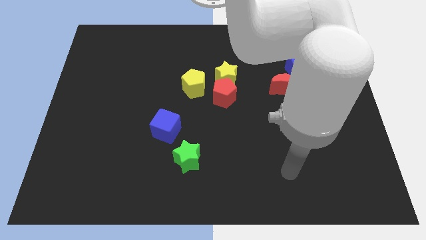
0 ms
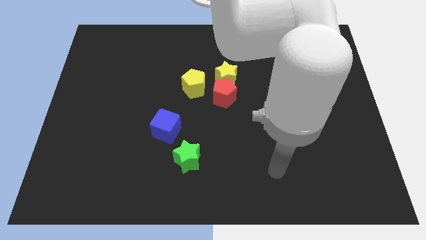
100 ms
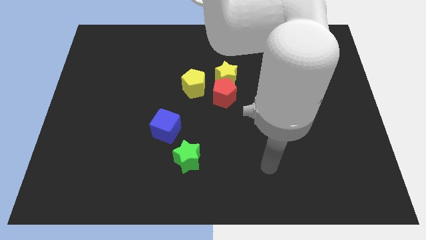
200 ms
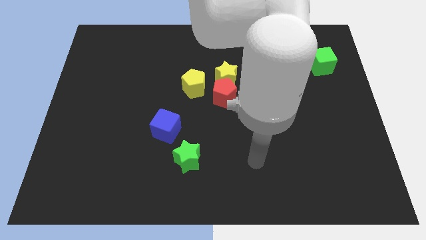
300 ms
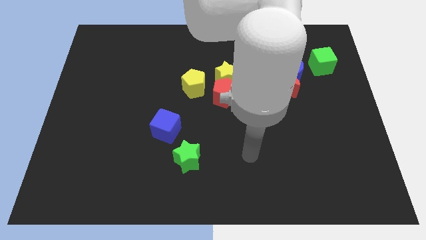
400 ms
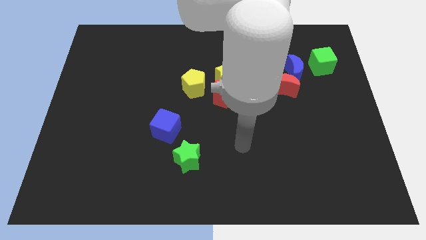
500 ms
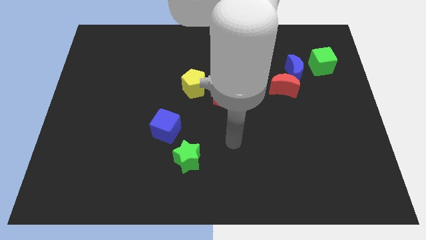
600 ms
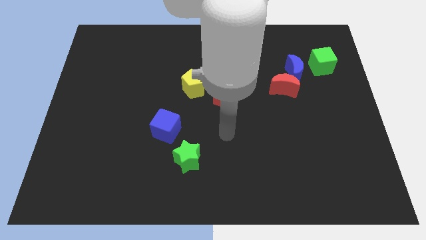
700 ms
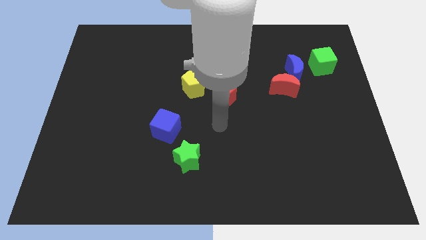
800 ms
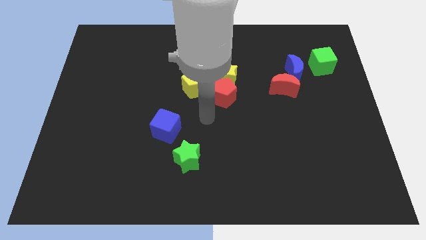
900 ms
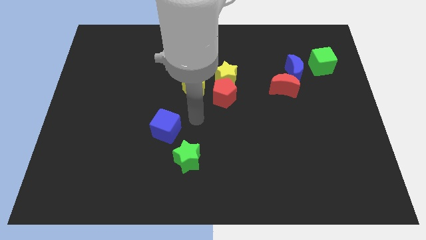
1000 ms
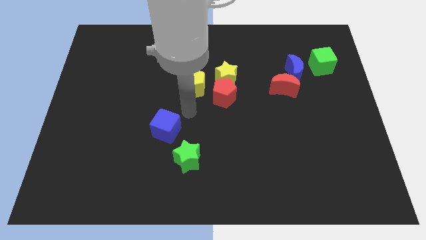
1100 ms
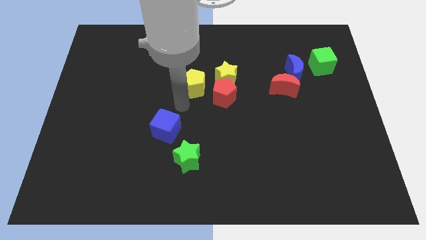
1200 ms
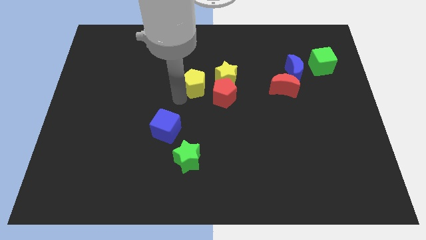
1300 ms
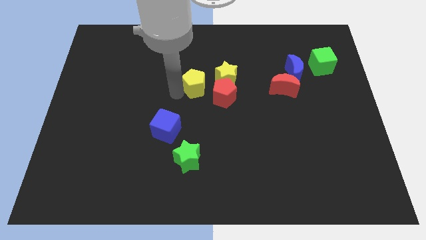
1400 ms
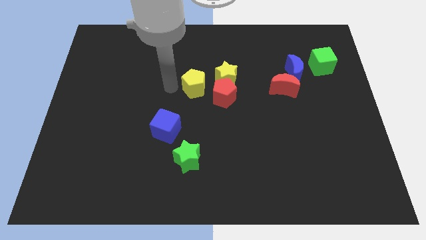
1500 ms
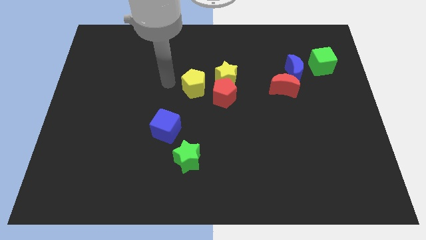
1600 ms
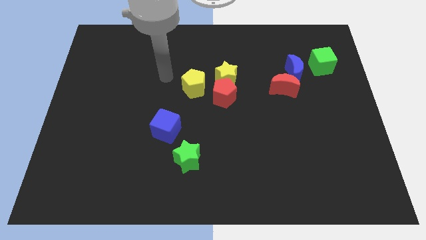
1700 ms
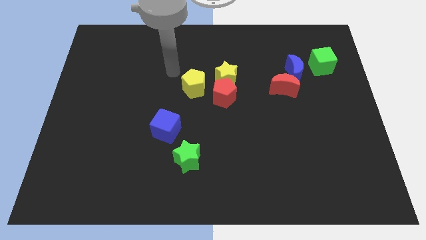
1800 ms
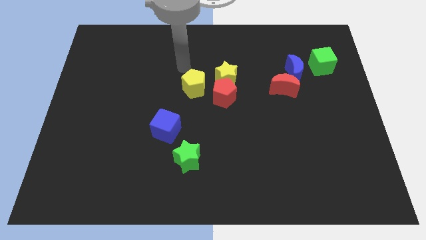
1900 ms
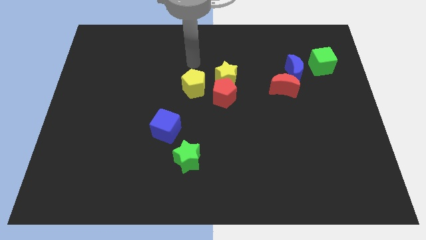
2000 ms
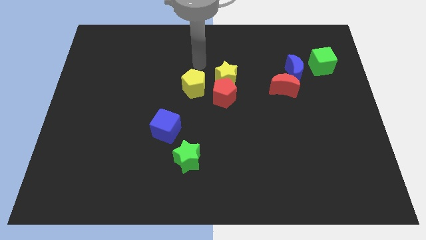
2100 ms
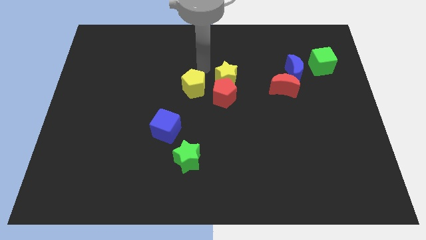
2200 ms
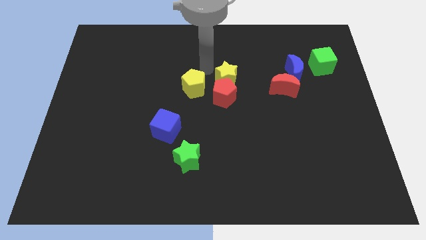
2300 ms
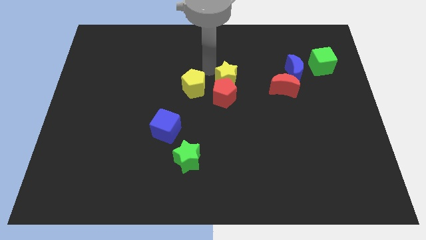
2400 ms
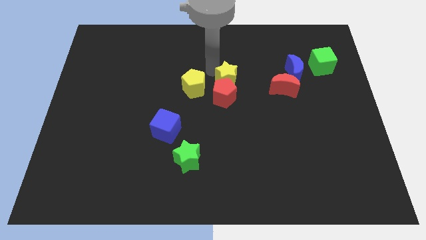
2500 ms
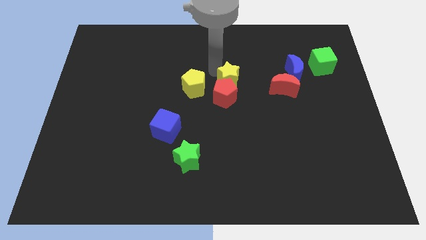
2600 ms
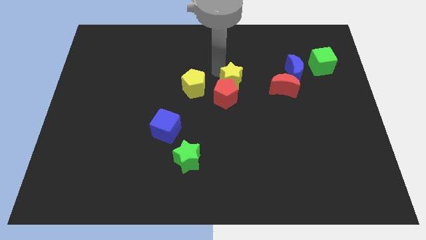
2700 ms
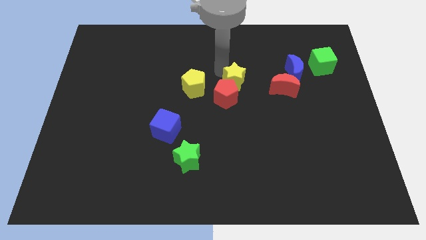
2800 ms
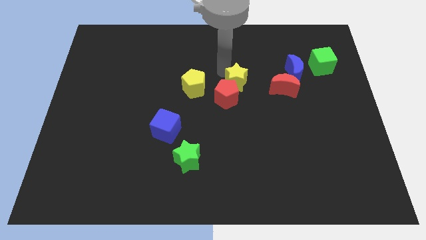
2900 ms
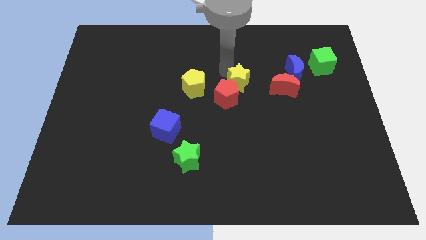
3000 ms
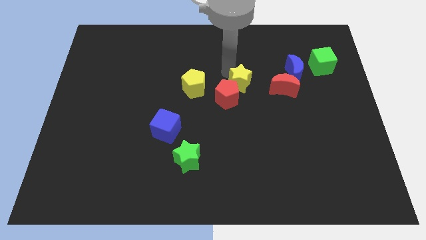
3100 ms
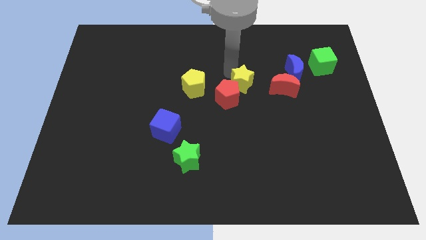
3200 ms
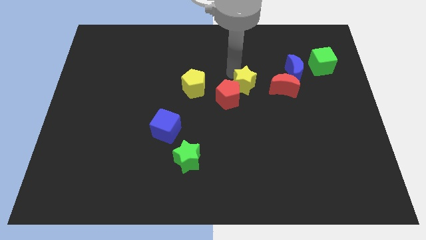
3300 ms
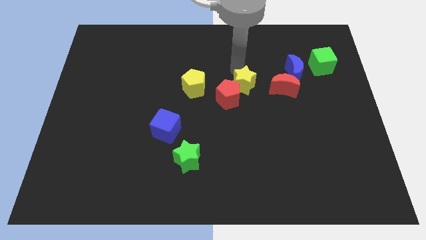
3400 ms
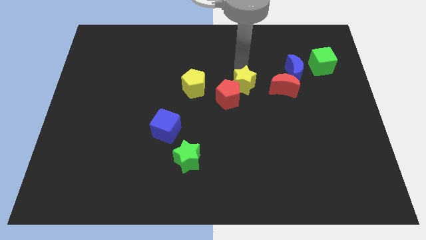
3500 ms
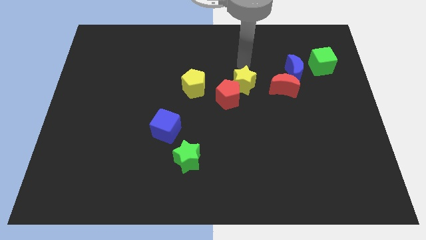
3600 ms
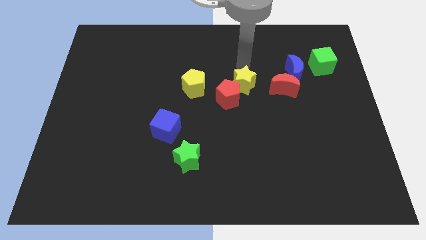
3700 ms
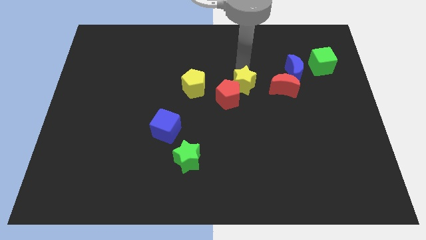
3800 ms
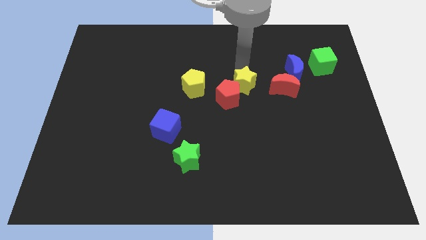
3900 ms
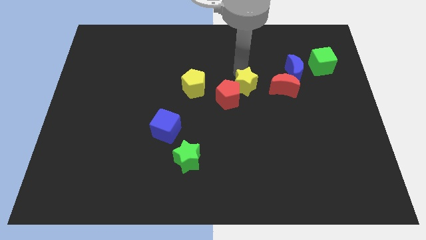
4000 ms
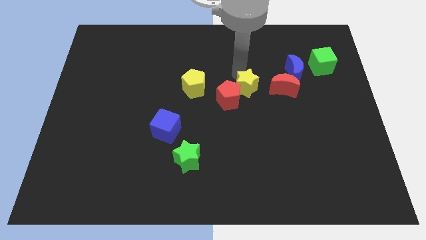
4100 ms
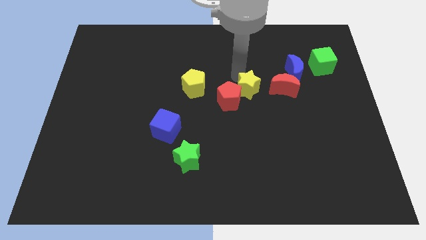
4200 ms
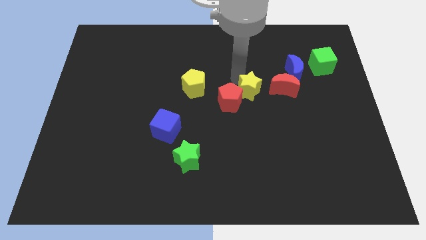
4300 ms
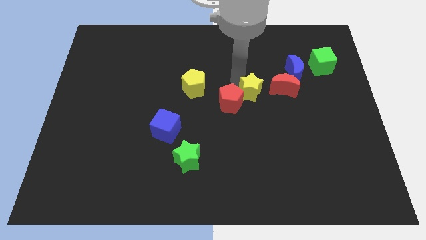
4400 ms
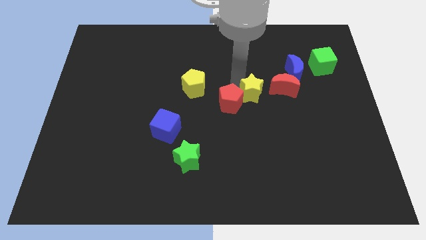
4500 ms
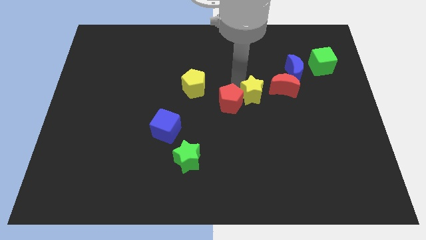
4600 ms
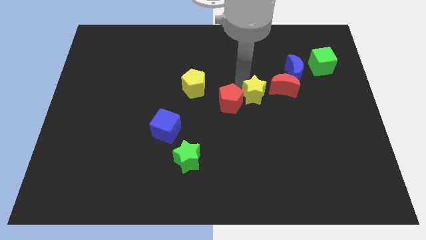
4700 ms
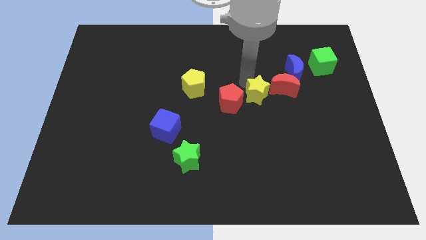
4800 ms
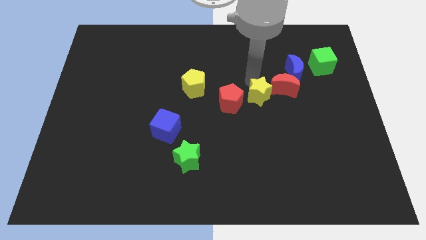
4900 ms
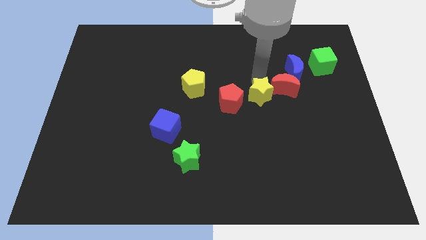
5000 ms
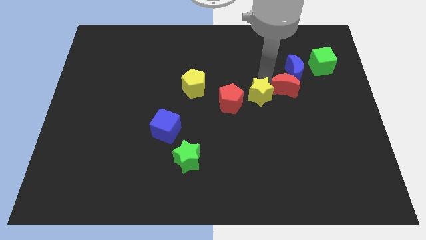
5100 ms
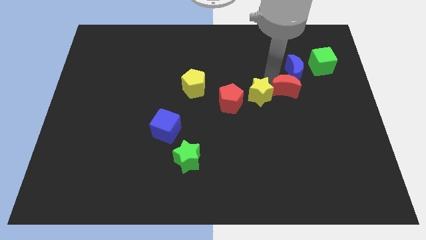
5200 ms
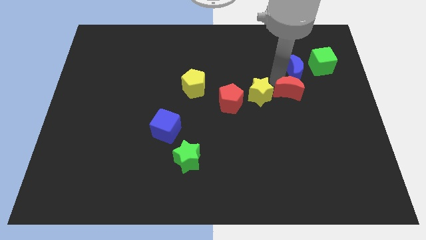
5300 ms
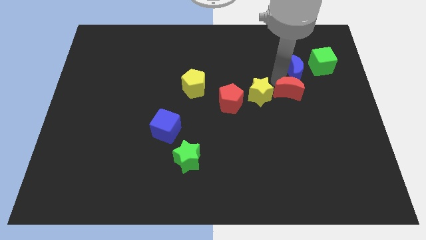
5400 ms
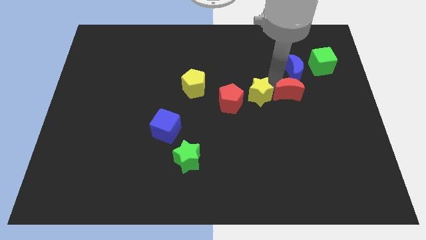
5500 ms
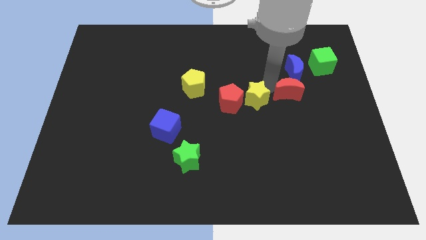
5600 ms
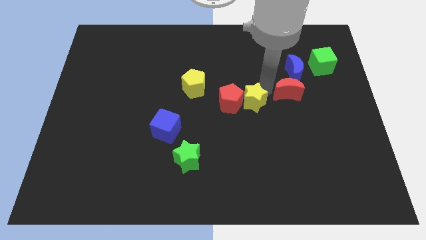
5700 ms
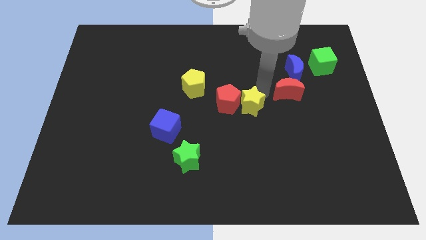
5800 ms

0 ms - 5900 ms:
move the yellow star slightly down

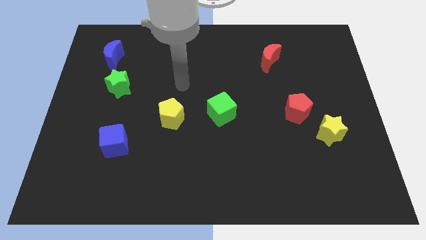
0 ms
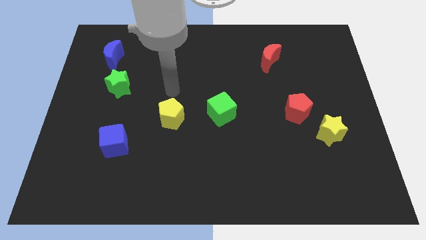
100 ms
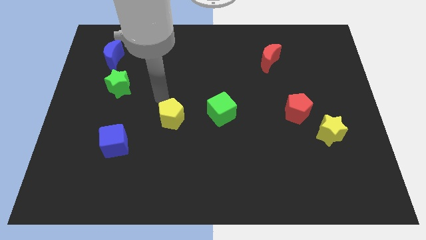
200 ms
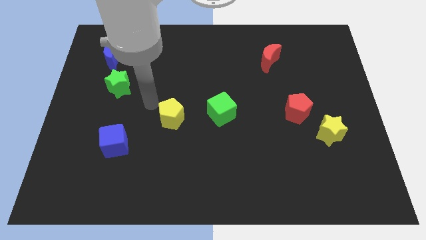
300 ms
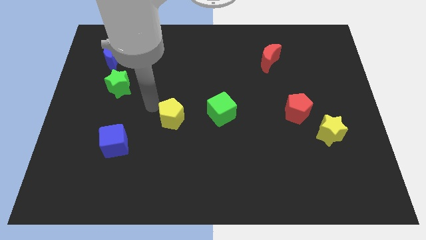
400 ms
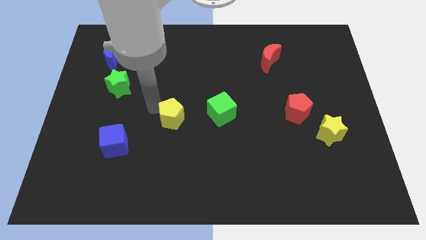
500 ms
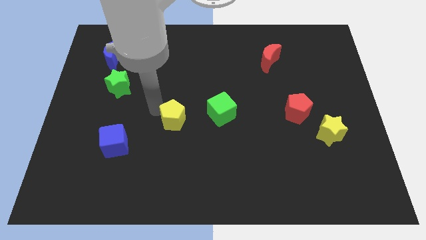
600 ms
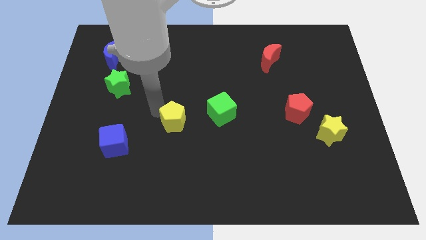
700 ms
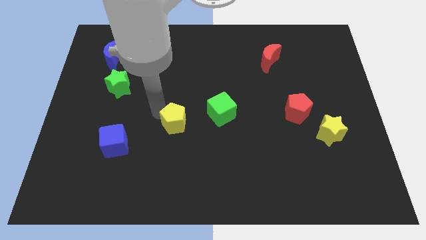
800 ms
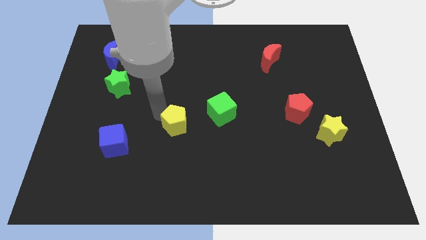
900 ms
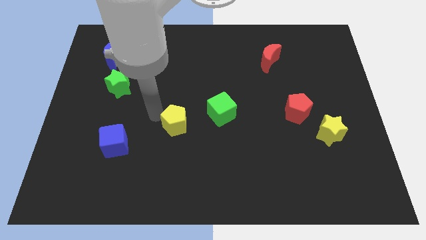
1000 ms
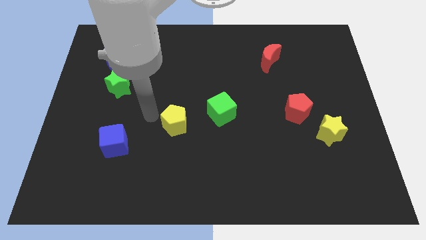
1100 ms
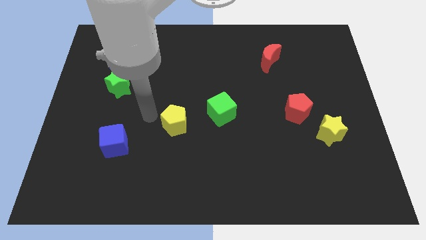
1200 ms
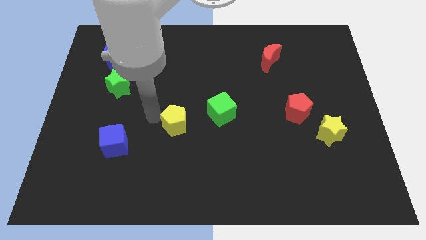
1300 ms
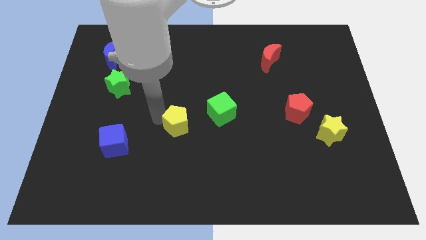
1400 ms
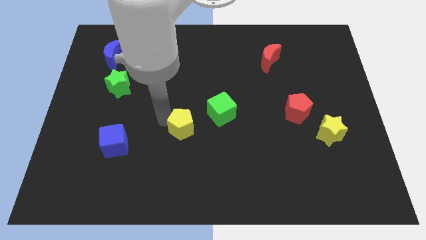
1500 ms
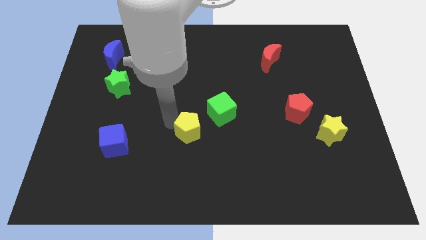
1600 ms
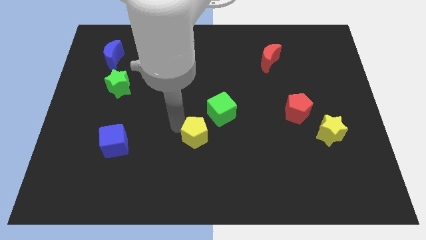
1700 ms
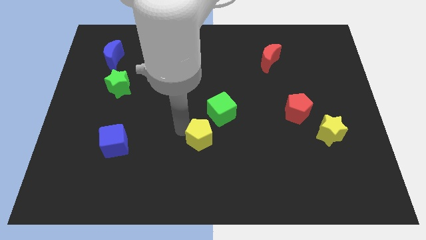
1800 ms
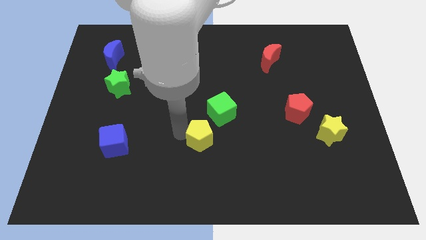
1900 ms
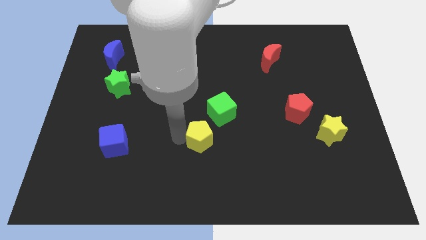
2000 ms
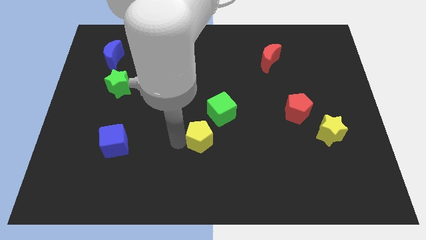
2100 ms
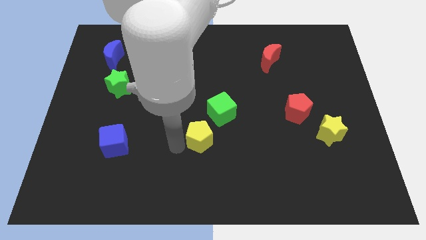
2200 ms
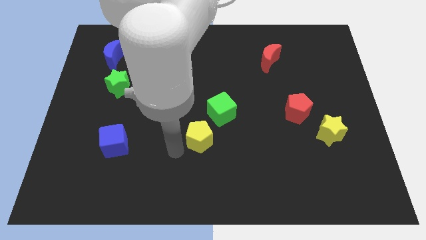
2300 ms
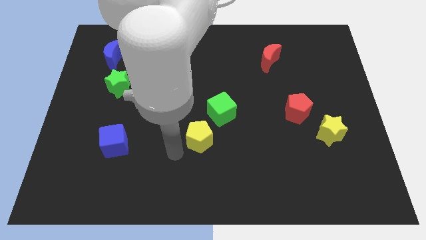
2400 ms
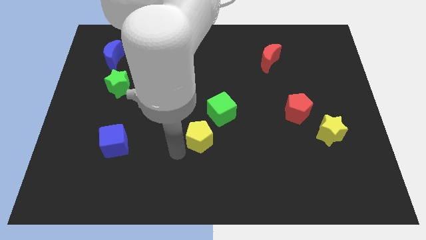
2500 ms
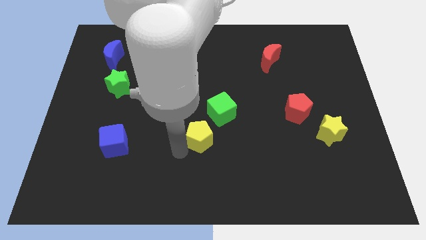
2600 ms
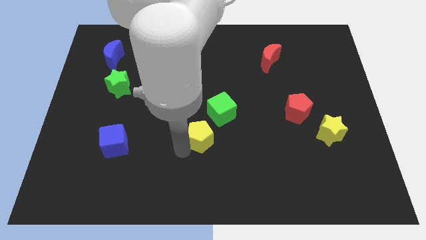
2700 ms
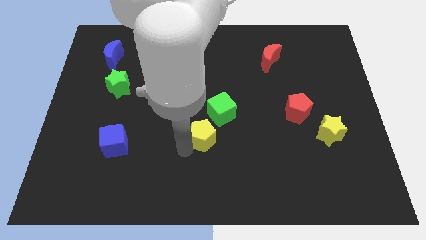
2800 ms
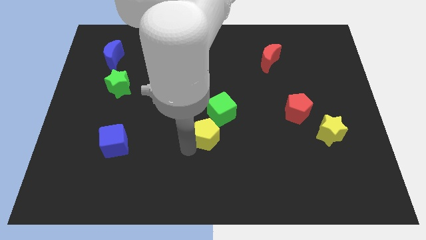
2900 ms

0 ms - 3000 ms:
move the yellow pentagon right somewhat
